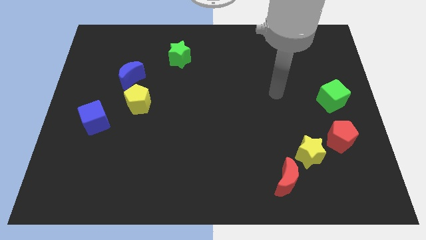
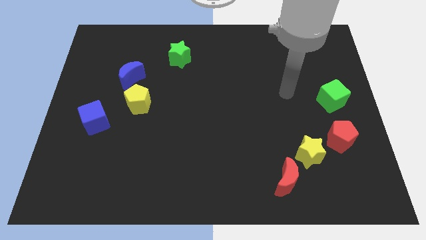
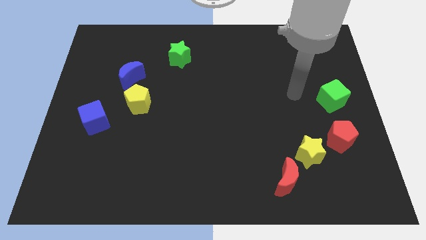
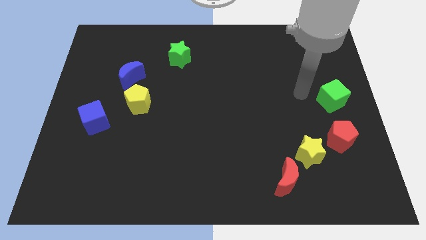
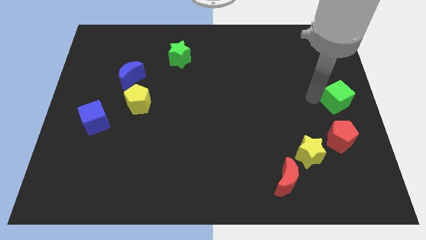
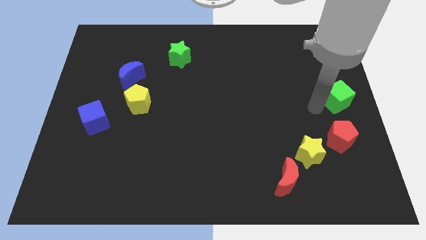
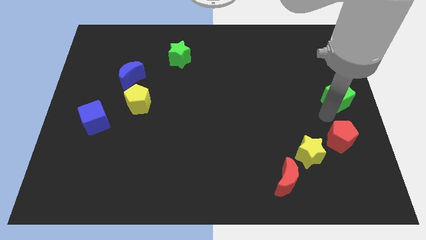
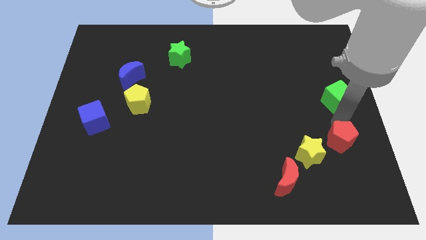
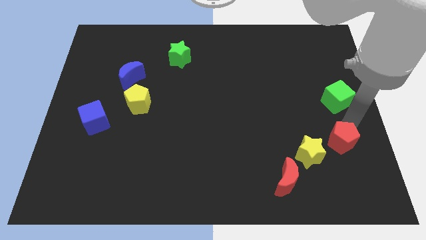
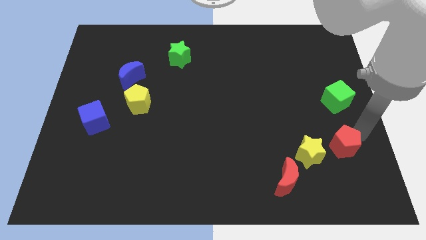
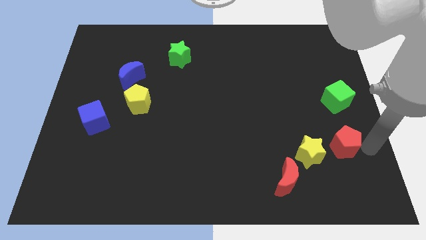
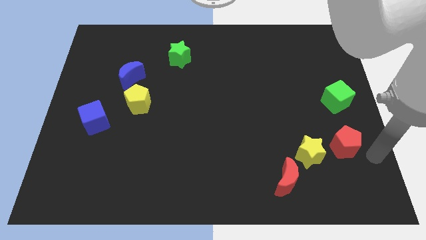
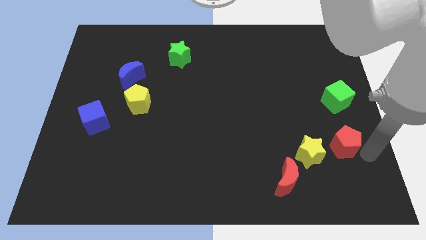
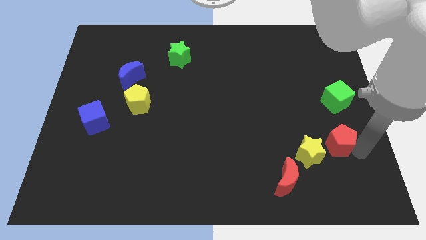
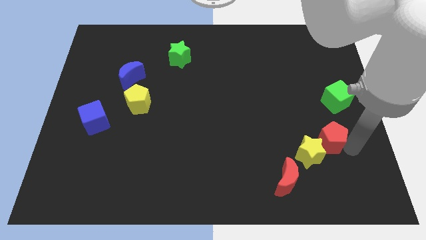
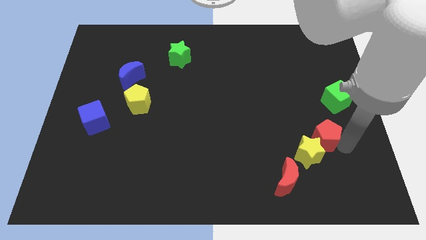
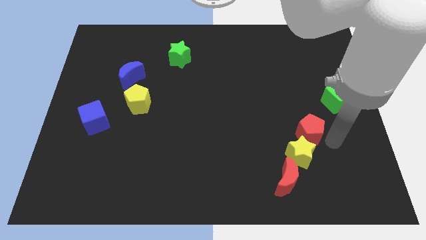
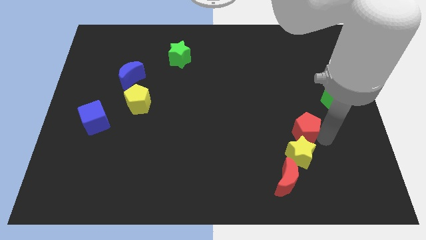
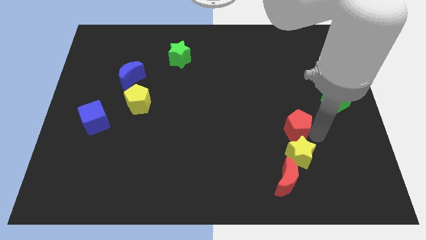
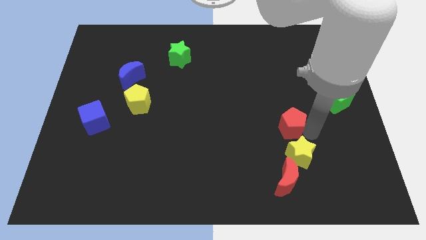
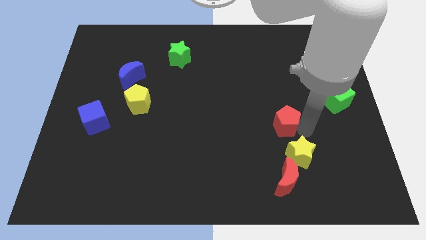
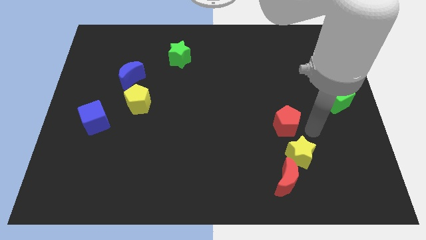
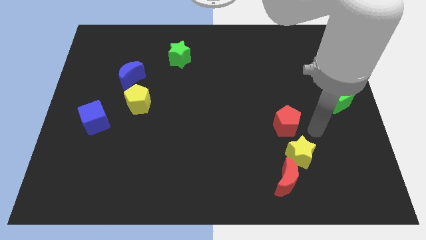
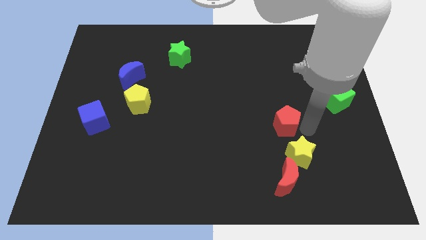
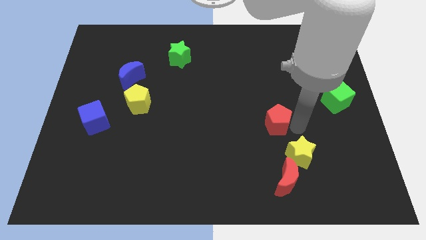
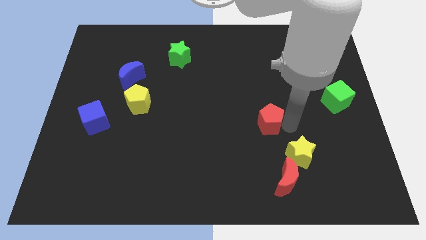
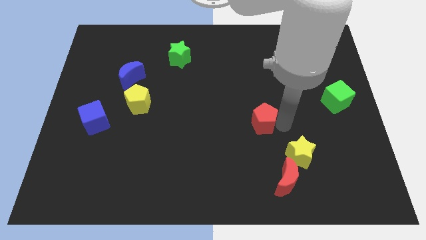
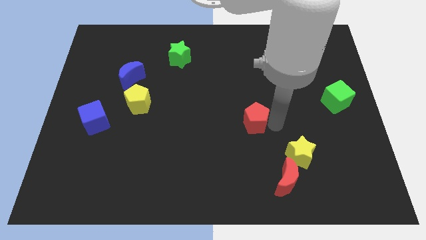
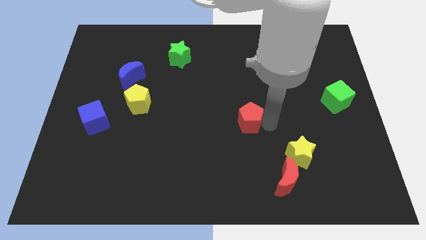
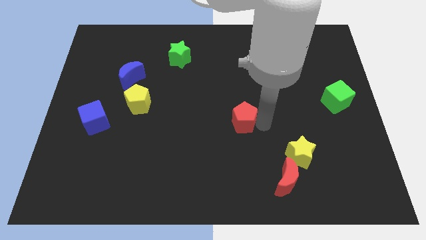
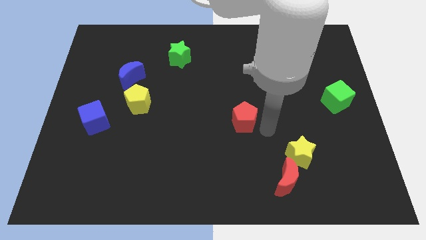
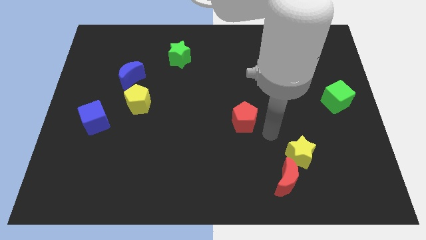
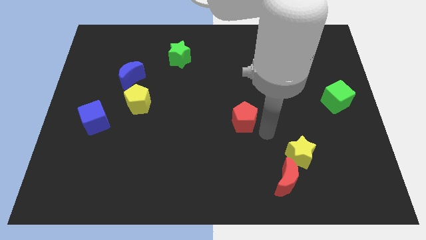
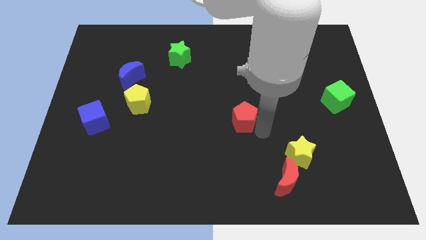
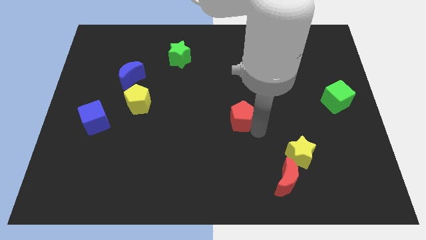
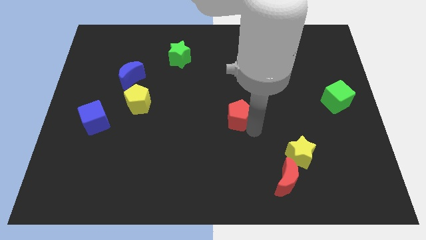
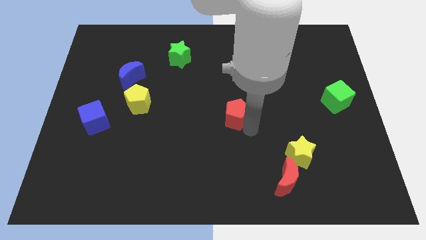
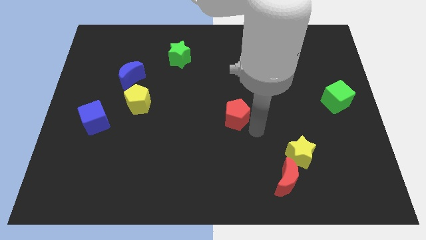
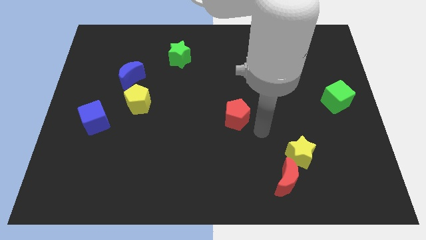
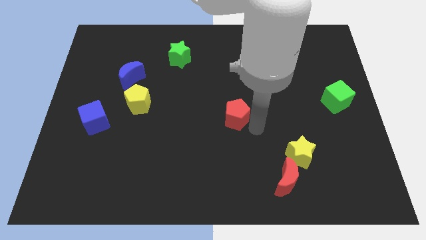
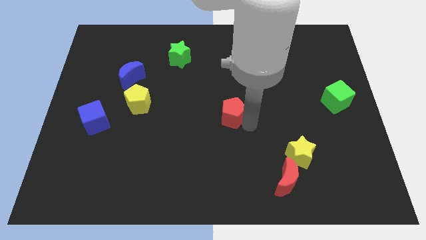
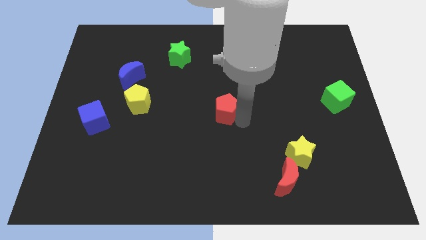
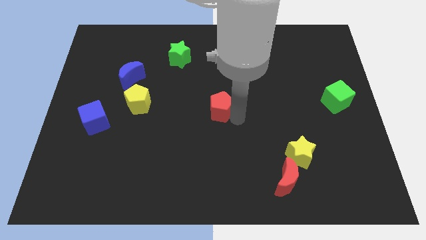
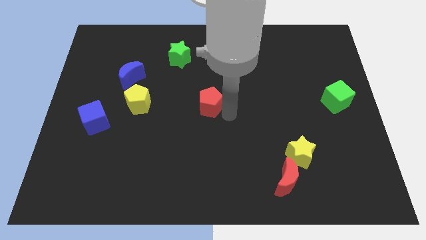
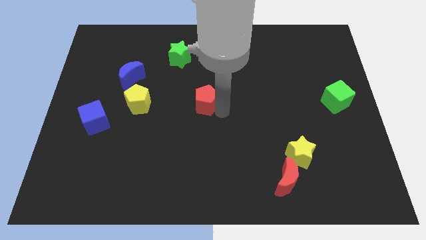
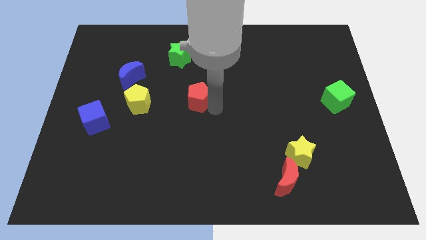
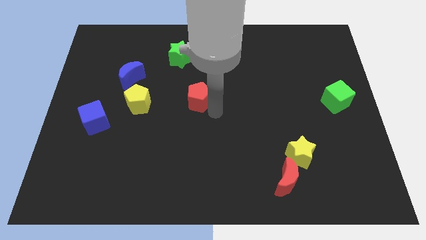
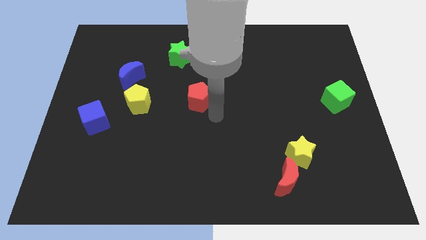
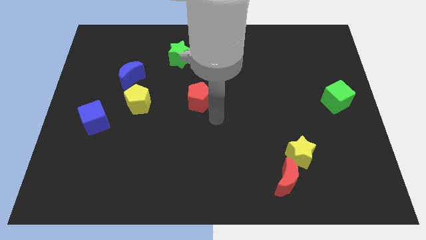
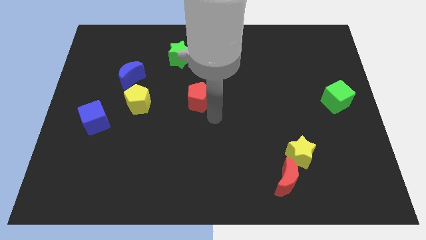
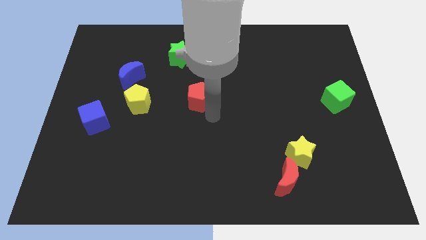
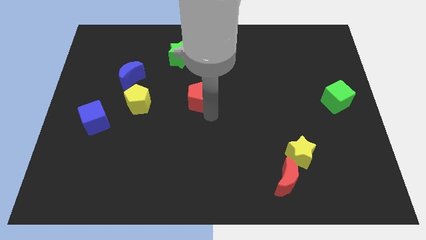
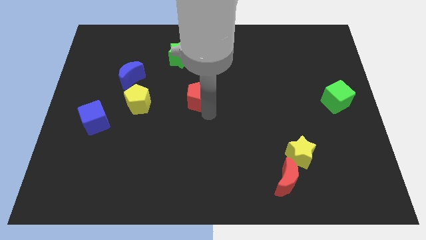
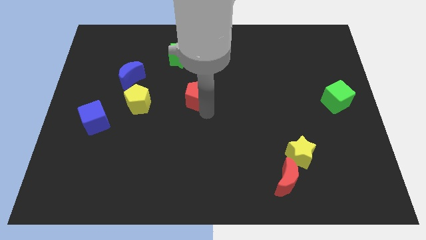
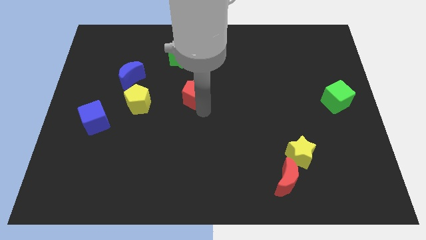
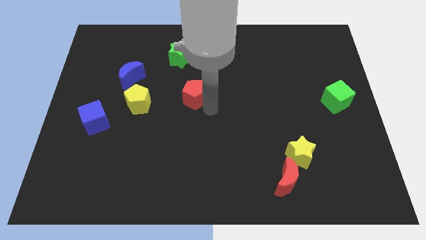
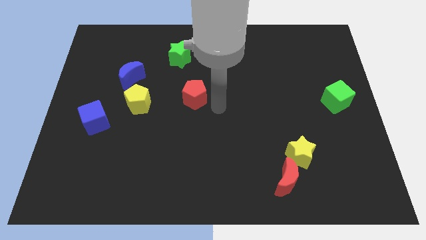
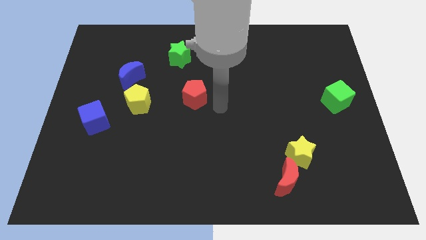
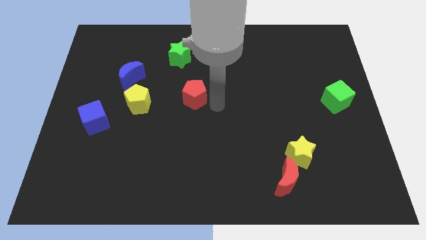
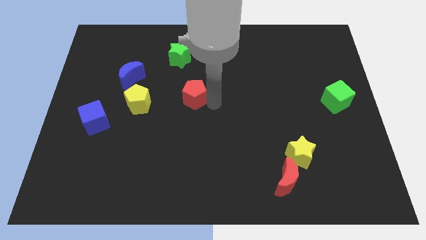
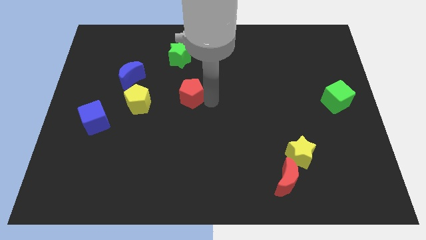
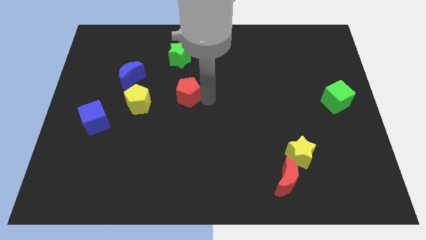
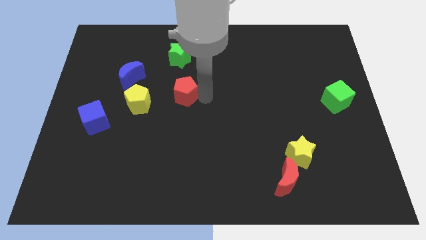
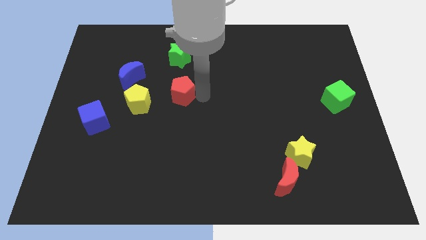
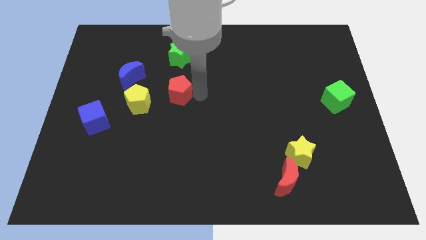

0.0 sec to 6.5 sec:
slide the red pentagon to the top right side of the yellow pentagon

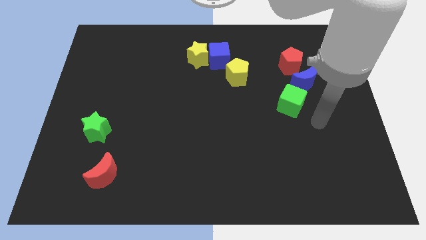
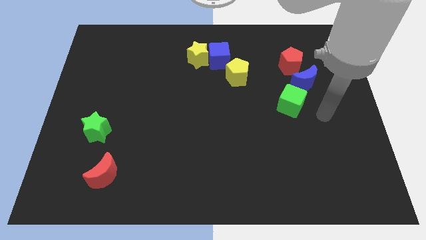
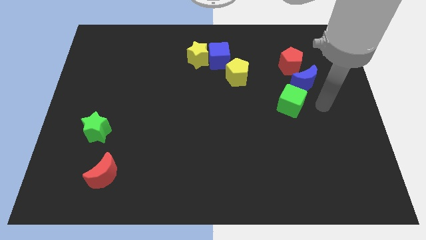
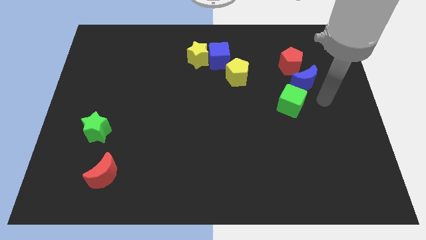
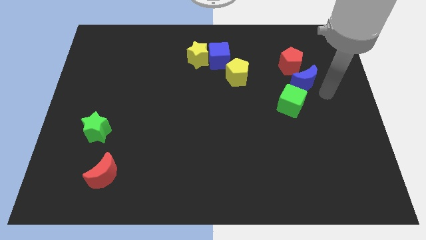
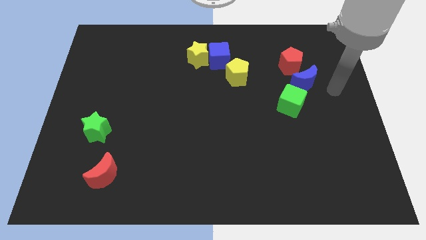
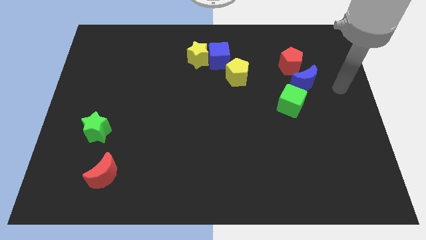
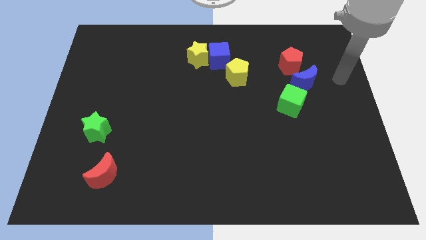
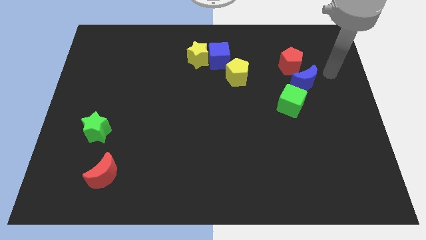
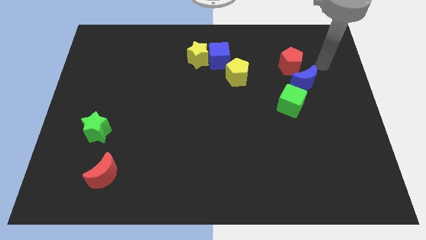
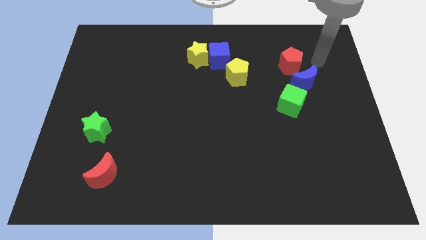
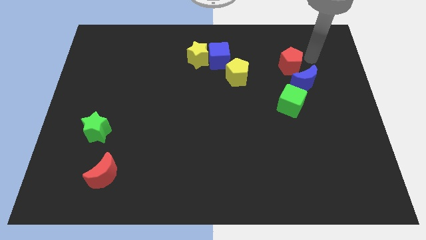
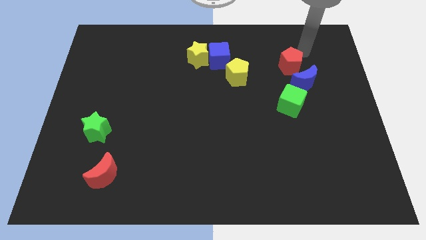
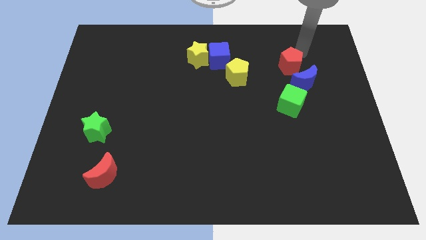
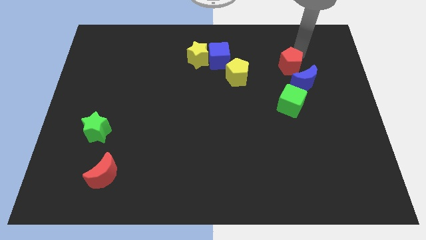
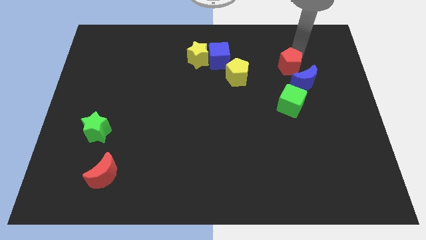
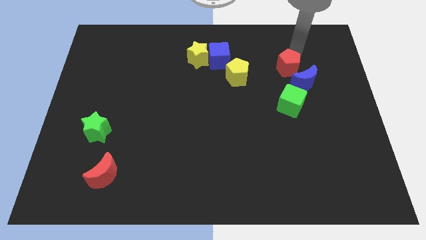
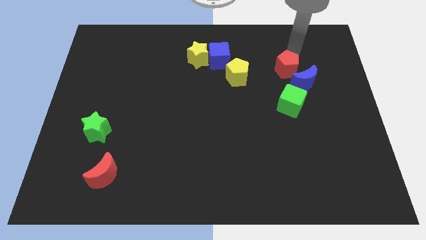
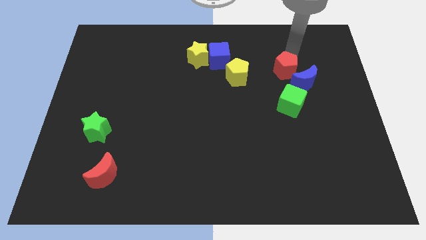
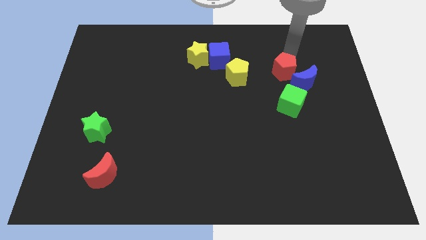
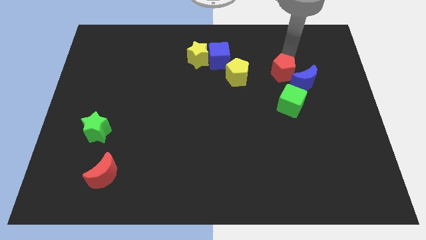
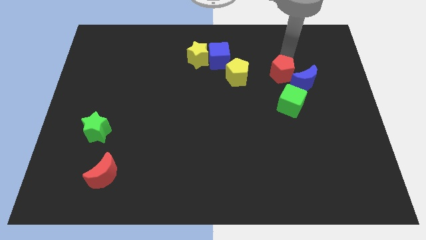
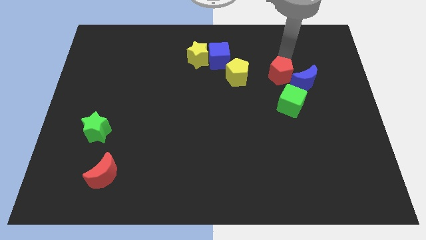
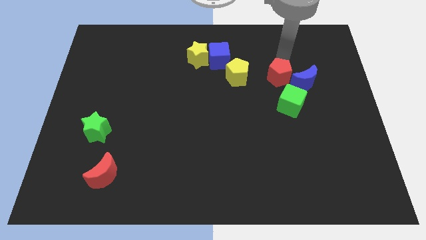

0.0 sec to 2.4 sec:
move the red pentagon to the top left of the green cube
